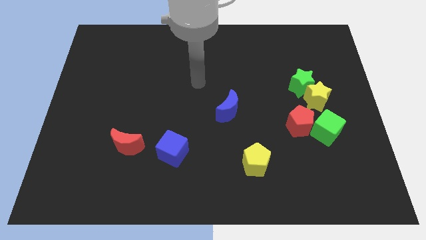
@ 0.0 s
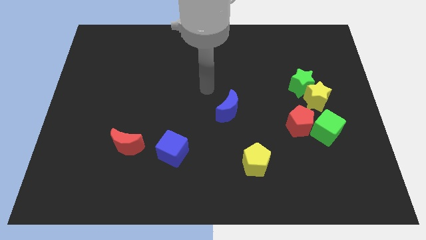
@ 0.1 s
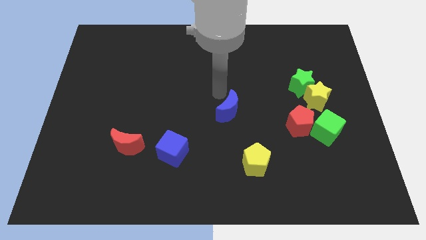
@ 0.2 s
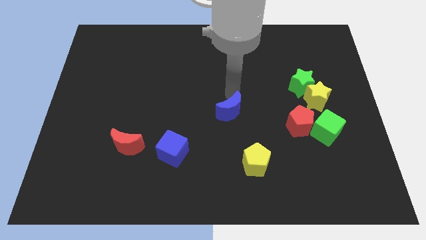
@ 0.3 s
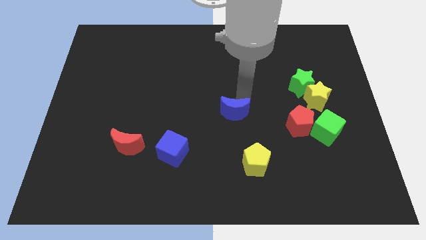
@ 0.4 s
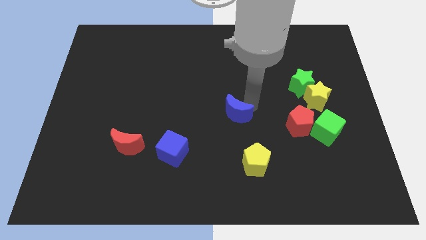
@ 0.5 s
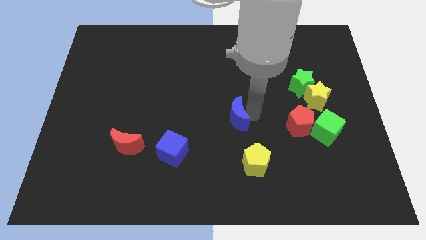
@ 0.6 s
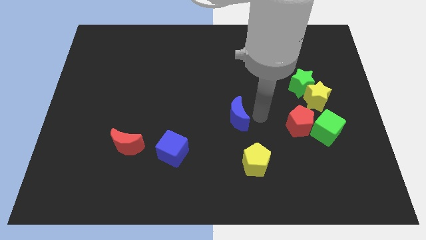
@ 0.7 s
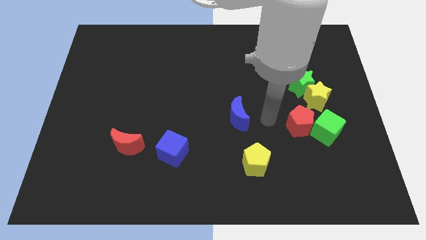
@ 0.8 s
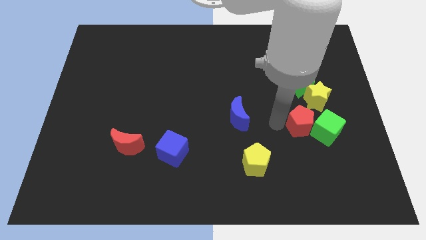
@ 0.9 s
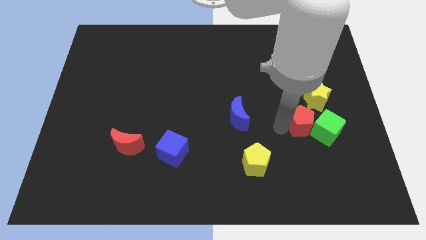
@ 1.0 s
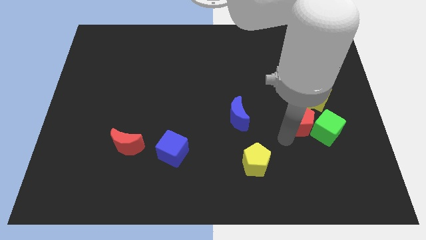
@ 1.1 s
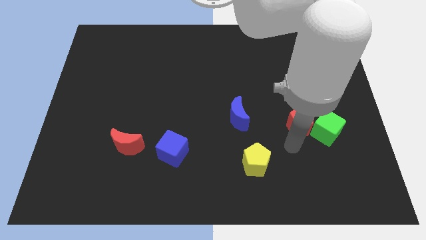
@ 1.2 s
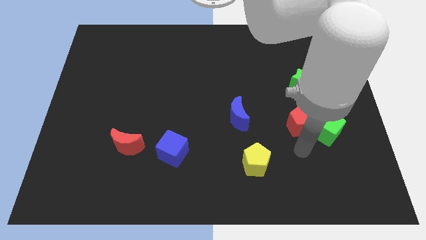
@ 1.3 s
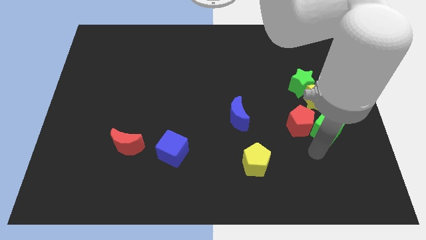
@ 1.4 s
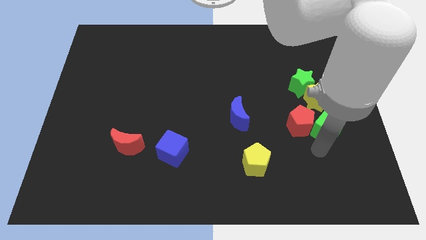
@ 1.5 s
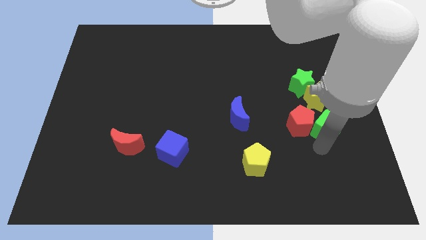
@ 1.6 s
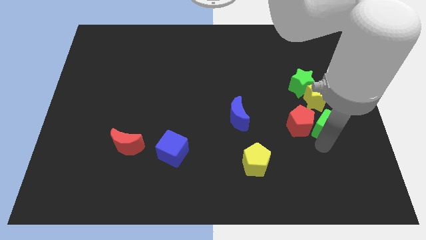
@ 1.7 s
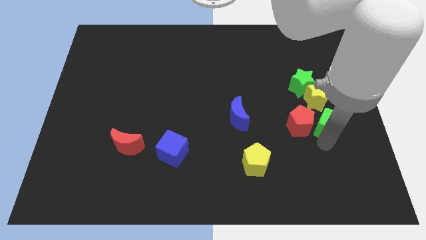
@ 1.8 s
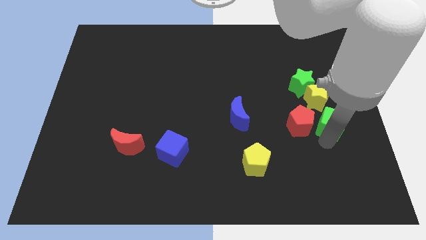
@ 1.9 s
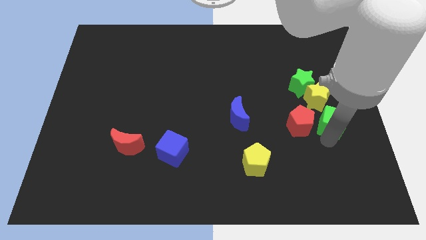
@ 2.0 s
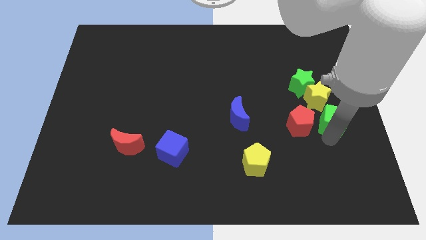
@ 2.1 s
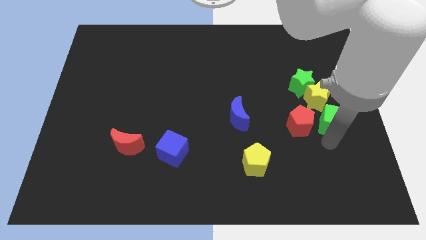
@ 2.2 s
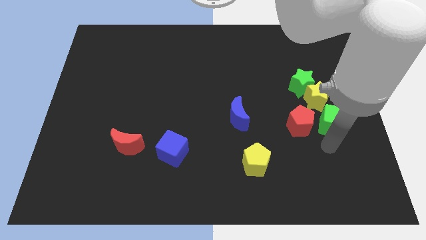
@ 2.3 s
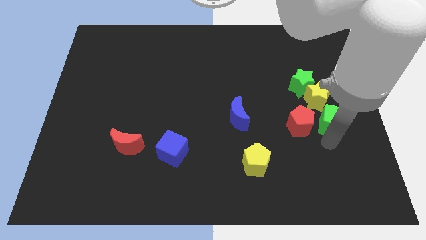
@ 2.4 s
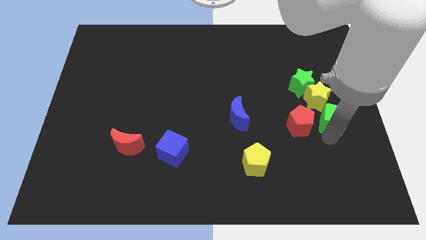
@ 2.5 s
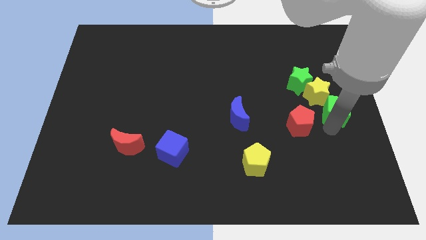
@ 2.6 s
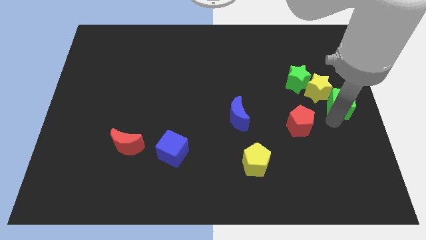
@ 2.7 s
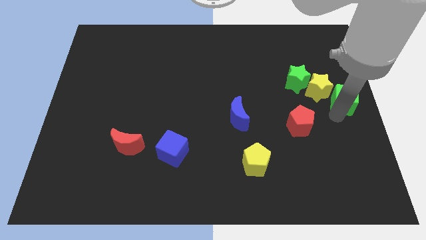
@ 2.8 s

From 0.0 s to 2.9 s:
slide the green cube up somewhat

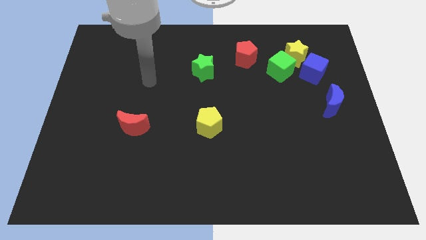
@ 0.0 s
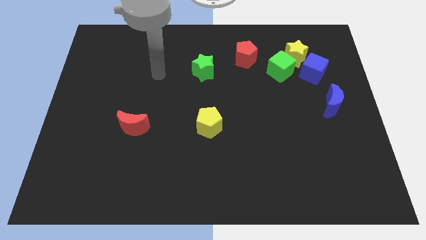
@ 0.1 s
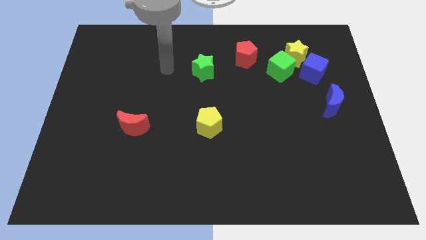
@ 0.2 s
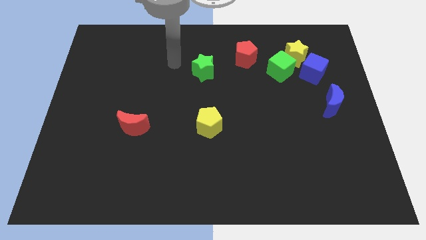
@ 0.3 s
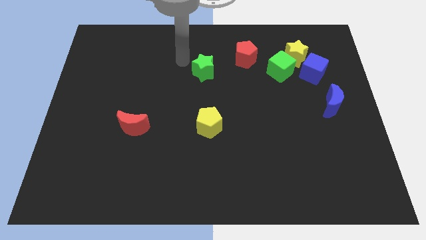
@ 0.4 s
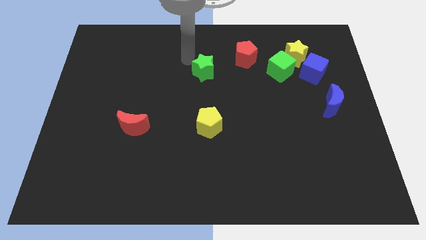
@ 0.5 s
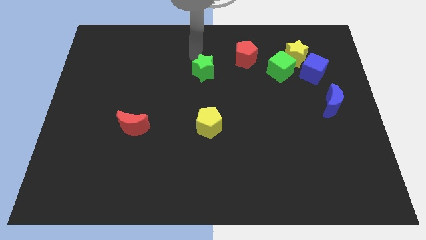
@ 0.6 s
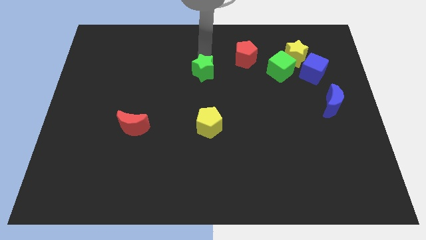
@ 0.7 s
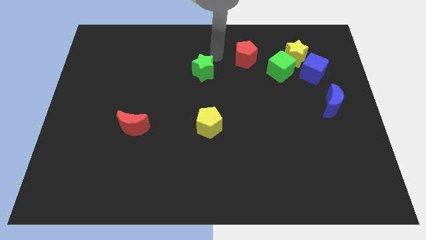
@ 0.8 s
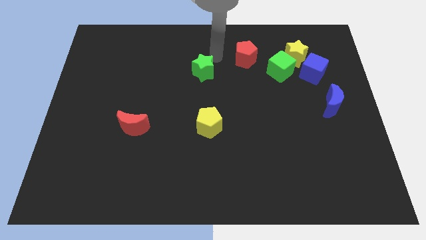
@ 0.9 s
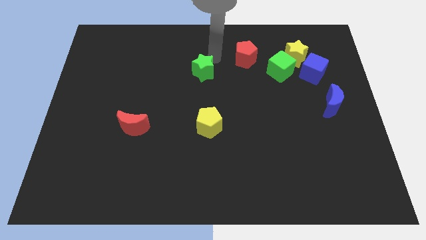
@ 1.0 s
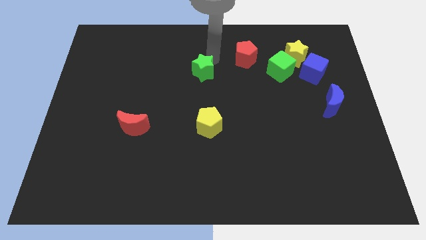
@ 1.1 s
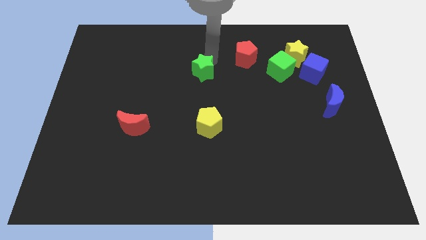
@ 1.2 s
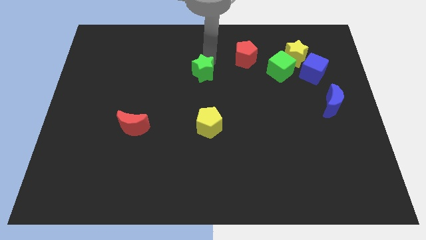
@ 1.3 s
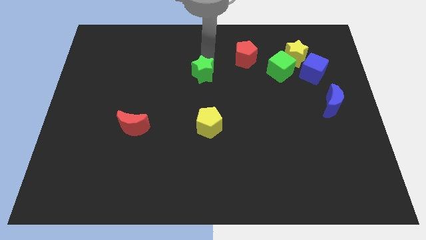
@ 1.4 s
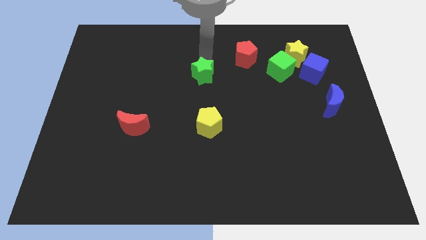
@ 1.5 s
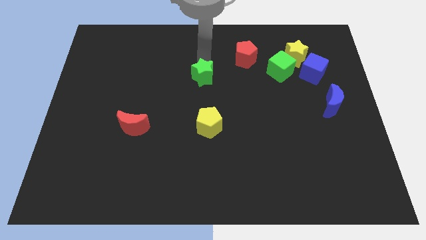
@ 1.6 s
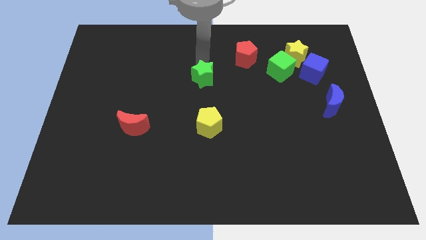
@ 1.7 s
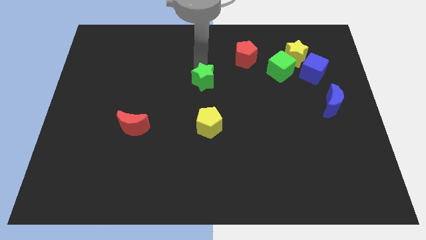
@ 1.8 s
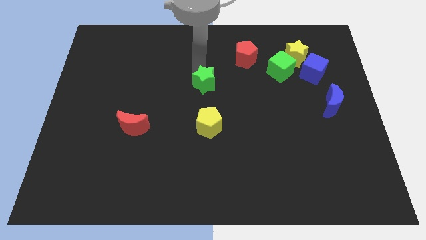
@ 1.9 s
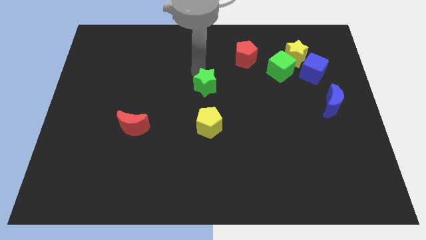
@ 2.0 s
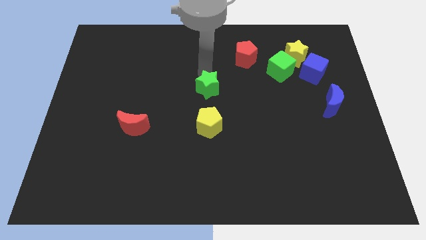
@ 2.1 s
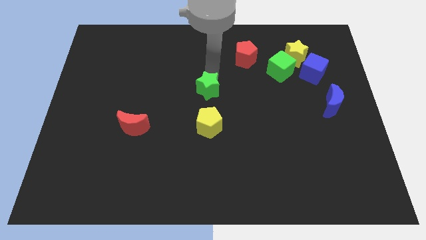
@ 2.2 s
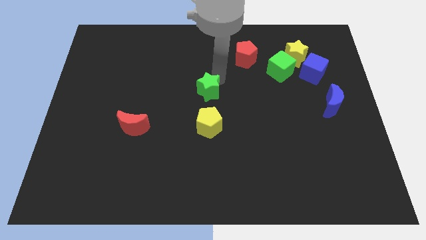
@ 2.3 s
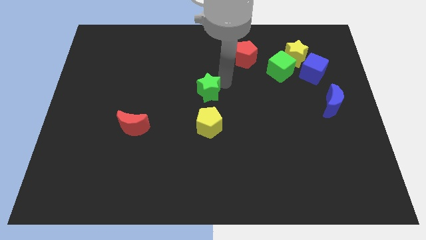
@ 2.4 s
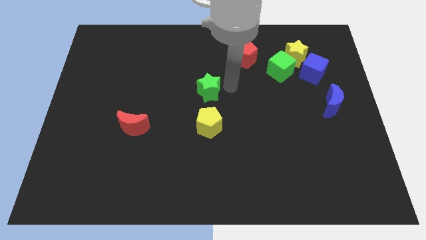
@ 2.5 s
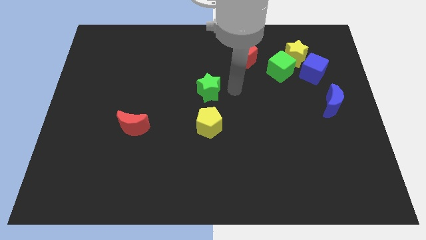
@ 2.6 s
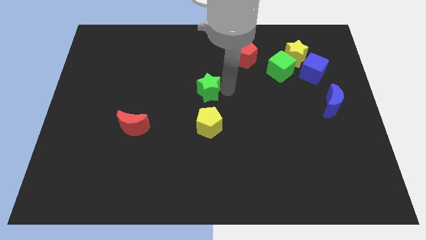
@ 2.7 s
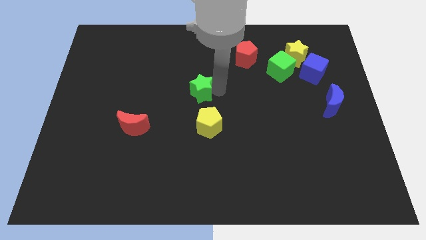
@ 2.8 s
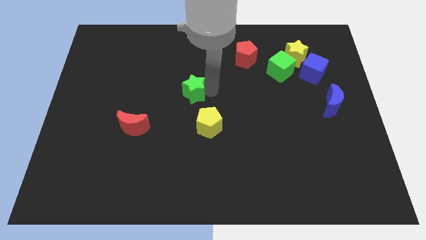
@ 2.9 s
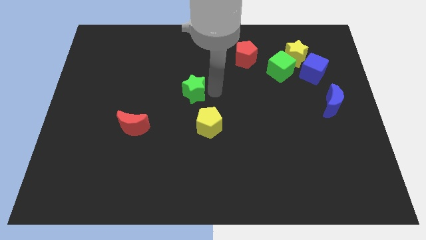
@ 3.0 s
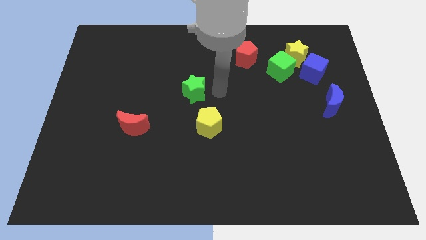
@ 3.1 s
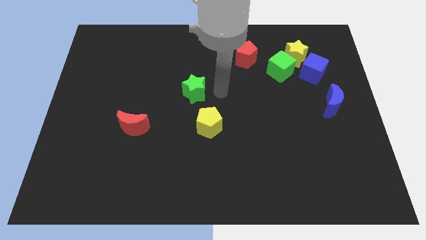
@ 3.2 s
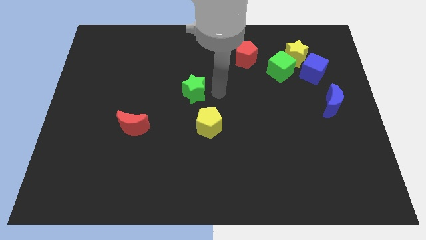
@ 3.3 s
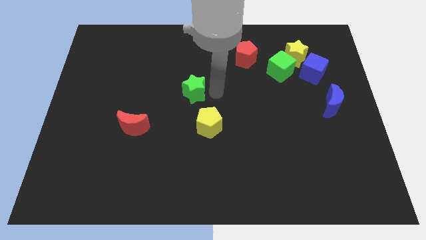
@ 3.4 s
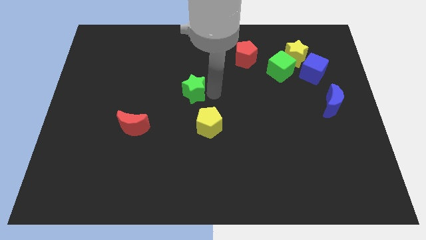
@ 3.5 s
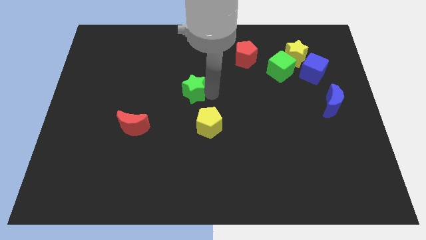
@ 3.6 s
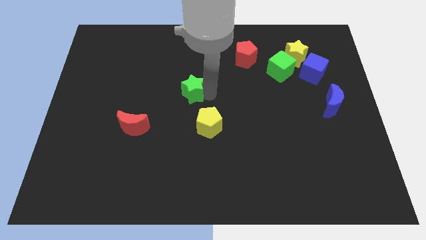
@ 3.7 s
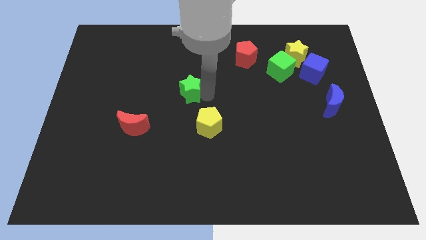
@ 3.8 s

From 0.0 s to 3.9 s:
slightly move the green star diagonally down and to the left

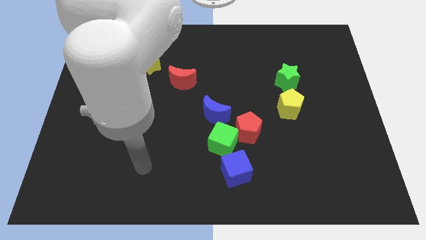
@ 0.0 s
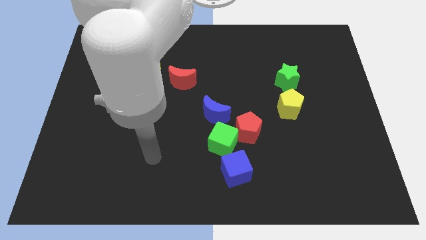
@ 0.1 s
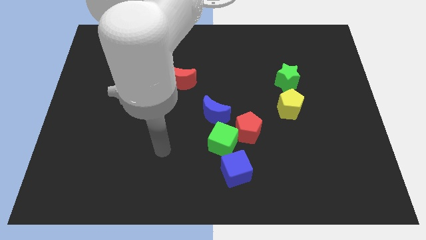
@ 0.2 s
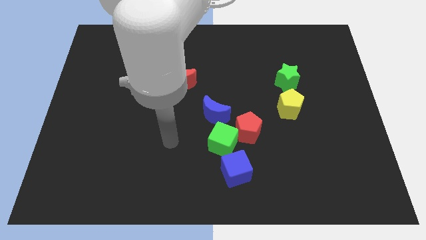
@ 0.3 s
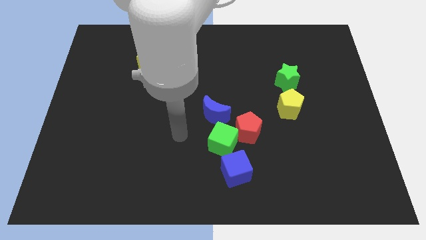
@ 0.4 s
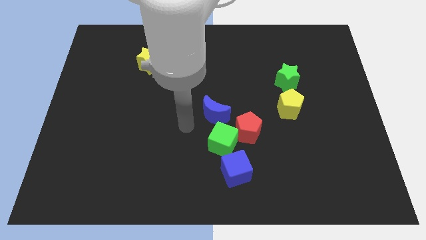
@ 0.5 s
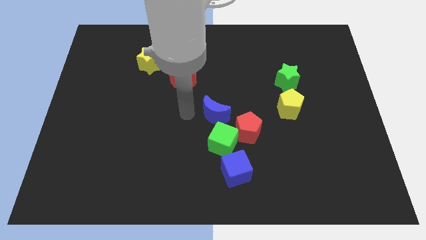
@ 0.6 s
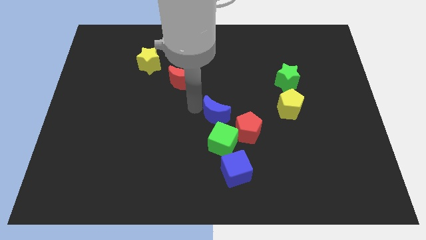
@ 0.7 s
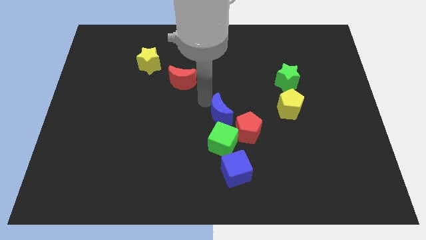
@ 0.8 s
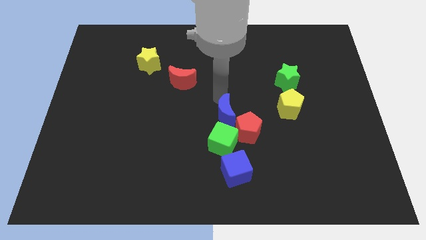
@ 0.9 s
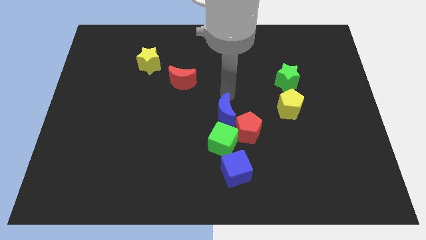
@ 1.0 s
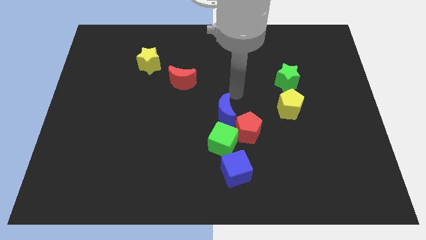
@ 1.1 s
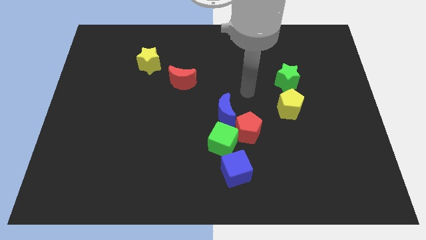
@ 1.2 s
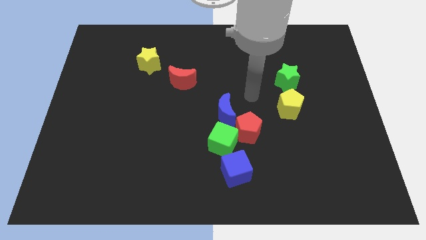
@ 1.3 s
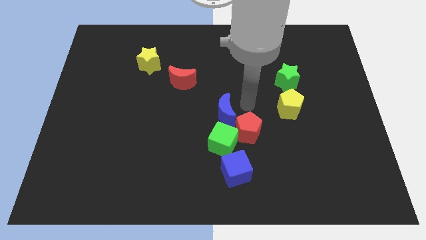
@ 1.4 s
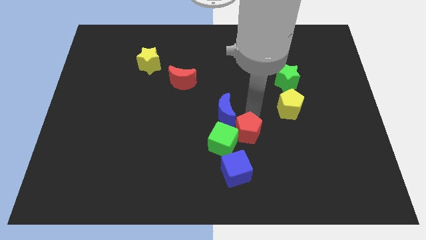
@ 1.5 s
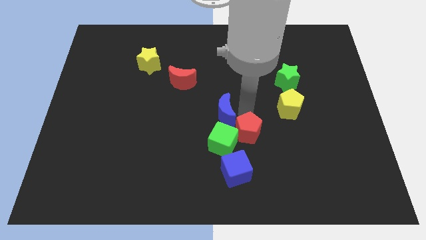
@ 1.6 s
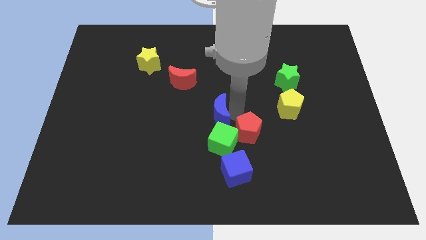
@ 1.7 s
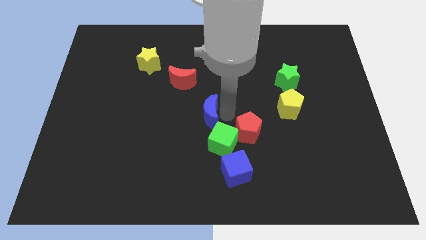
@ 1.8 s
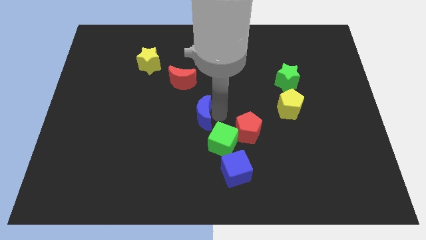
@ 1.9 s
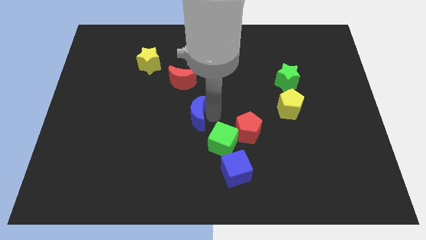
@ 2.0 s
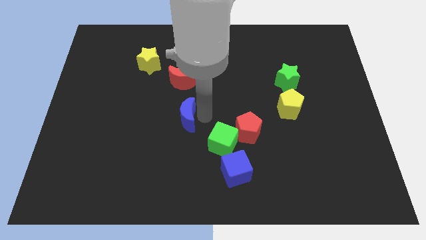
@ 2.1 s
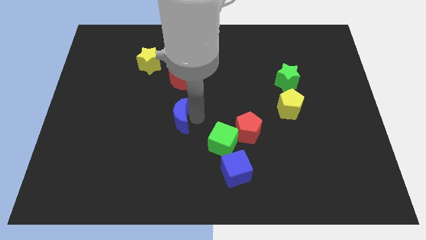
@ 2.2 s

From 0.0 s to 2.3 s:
slightly push the blue moon to the left
